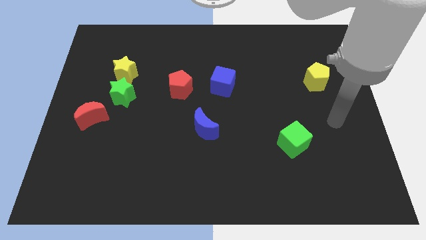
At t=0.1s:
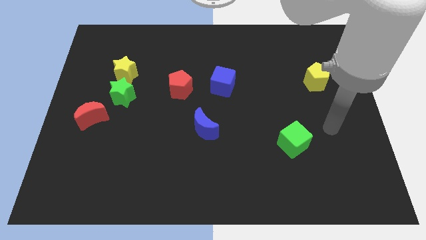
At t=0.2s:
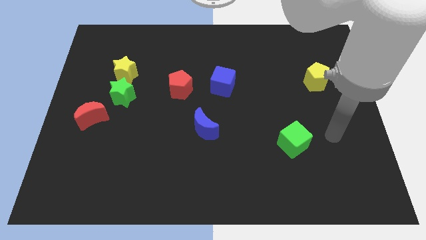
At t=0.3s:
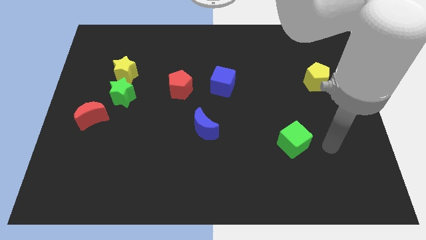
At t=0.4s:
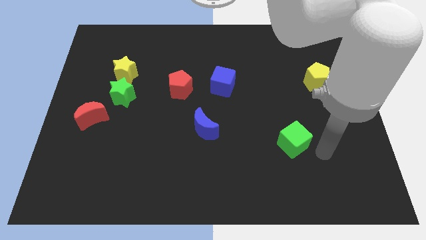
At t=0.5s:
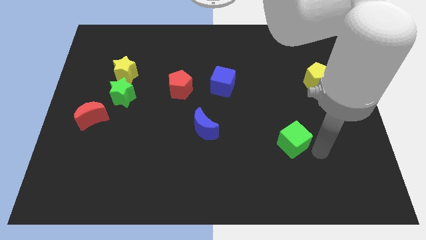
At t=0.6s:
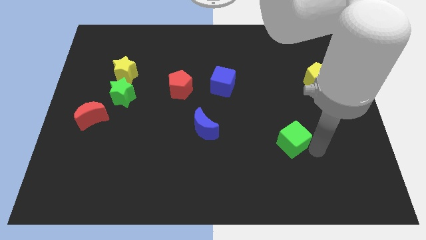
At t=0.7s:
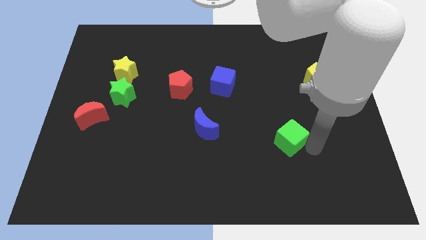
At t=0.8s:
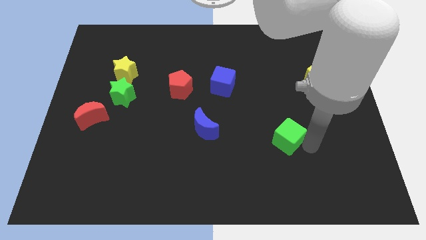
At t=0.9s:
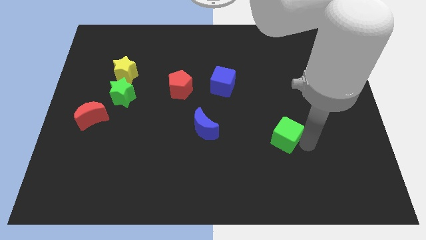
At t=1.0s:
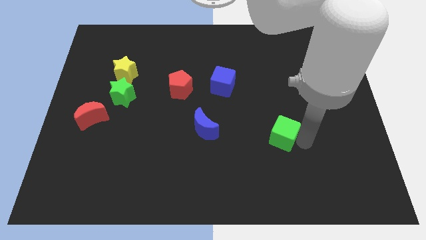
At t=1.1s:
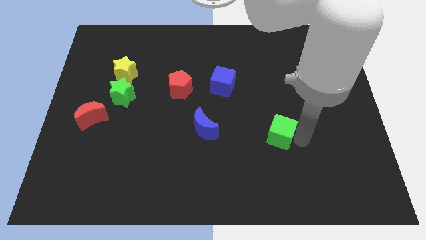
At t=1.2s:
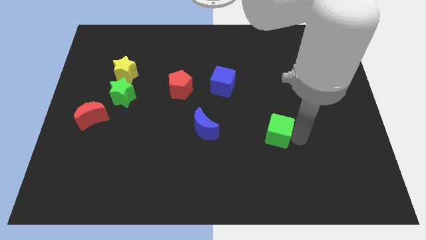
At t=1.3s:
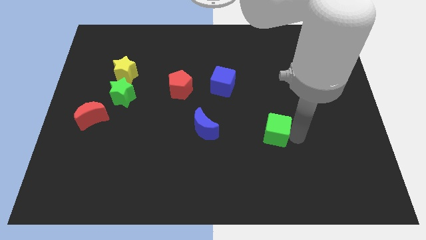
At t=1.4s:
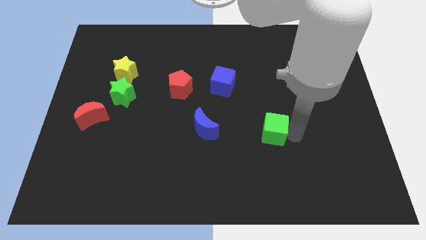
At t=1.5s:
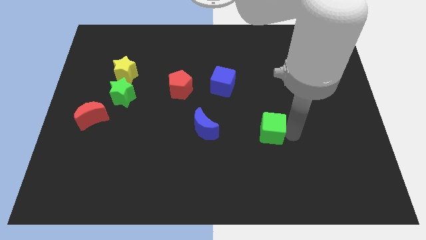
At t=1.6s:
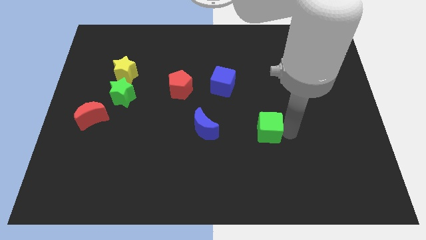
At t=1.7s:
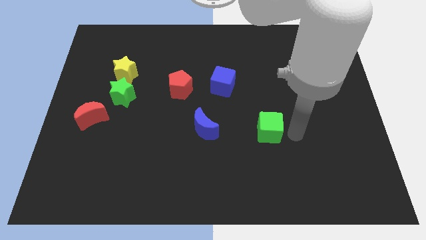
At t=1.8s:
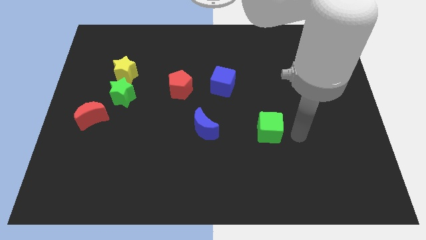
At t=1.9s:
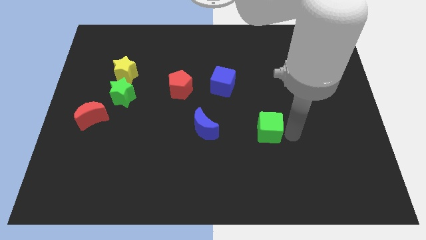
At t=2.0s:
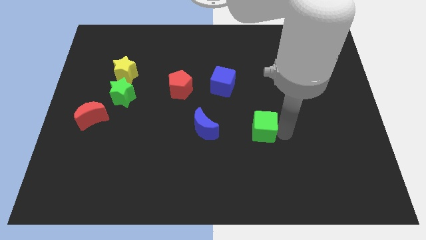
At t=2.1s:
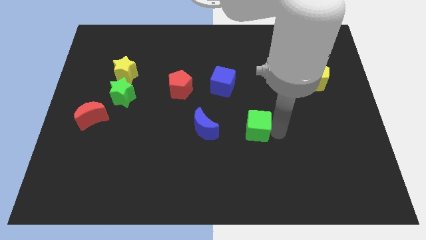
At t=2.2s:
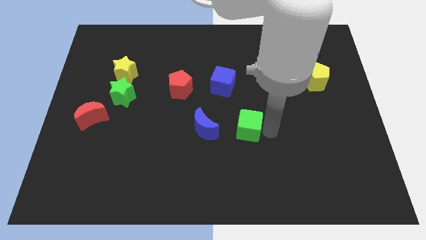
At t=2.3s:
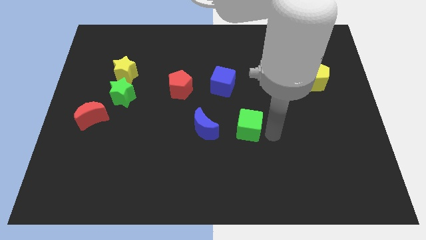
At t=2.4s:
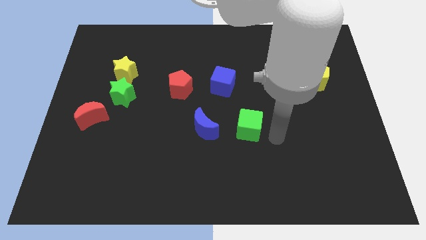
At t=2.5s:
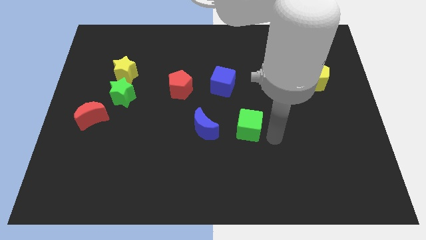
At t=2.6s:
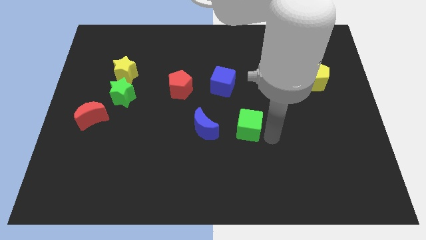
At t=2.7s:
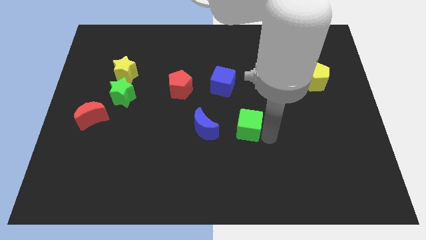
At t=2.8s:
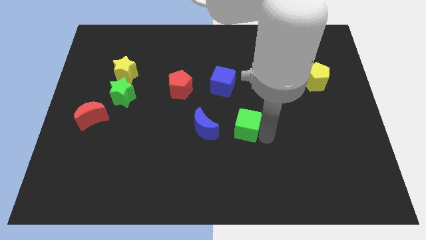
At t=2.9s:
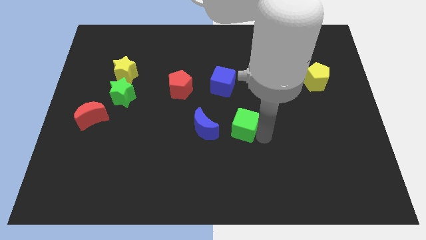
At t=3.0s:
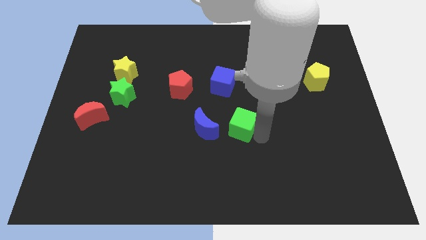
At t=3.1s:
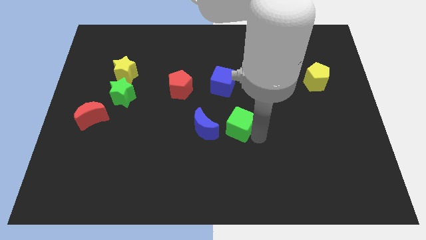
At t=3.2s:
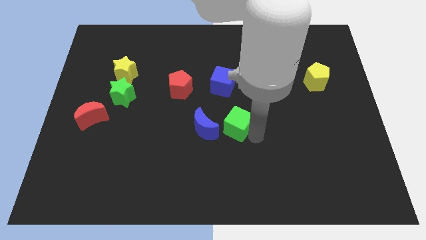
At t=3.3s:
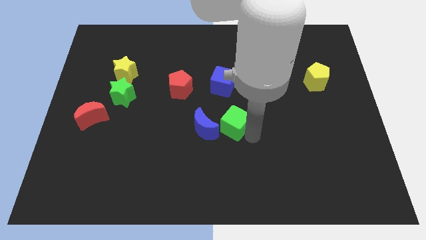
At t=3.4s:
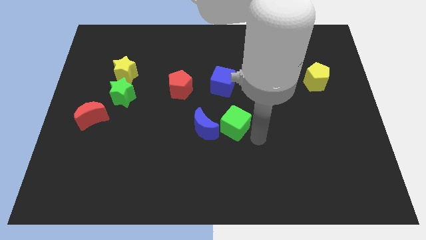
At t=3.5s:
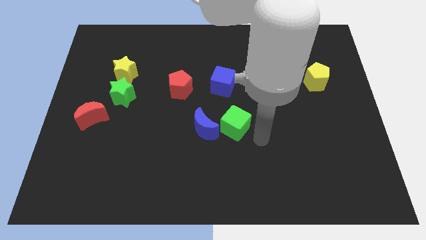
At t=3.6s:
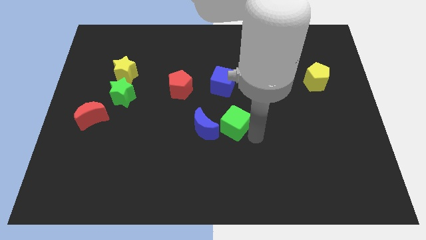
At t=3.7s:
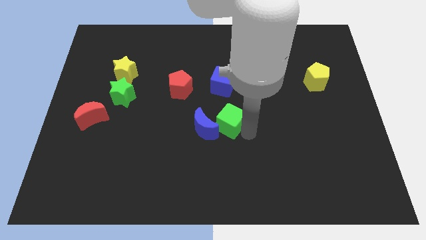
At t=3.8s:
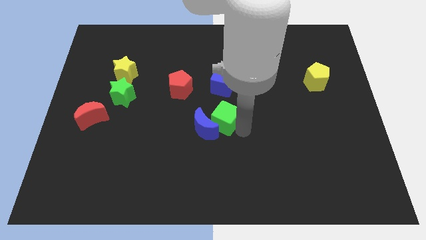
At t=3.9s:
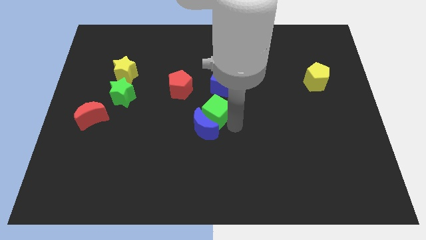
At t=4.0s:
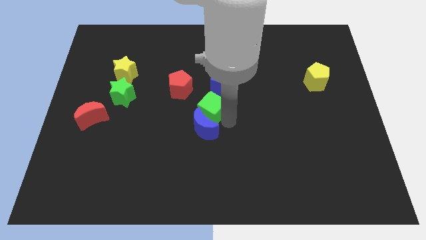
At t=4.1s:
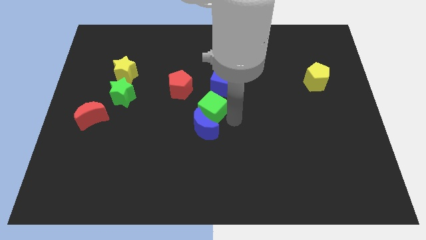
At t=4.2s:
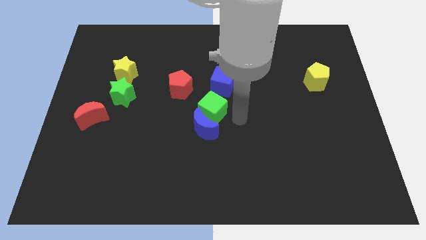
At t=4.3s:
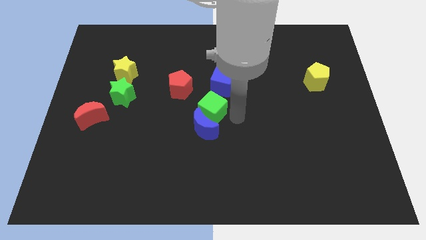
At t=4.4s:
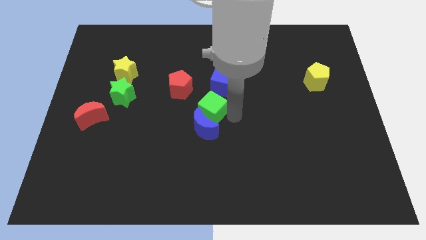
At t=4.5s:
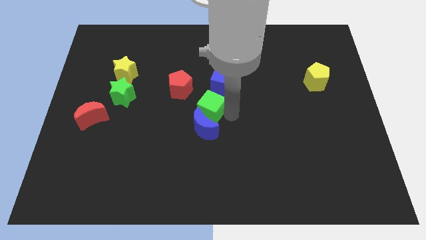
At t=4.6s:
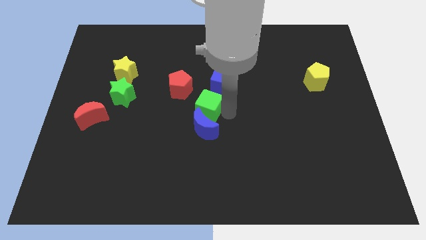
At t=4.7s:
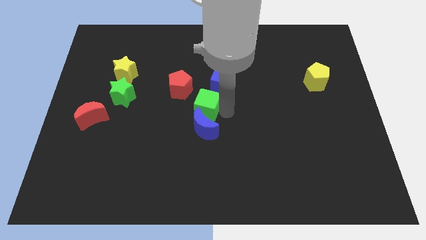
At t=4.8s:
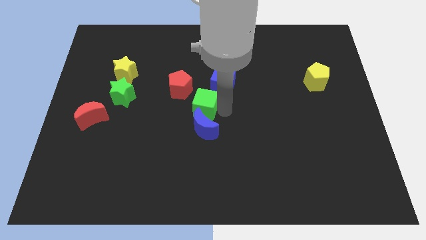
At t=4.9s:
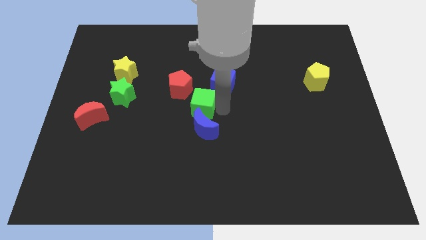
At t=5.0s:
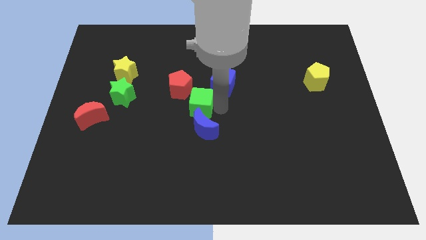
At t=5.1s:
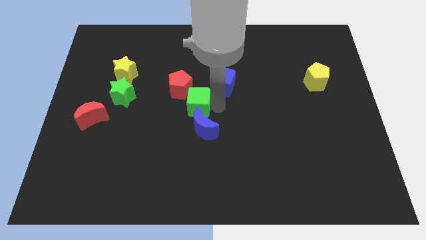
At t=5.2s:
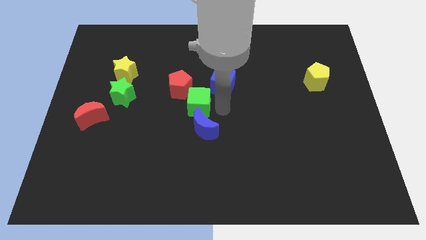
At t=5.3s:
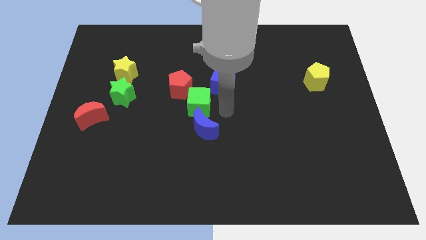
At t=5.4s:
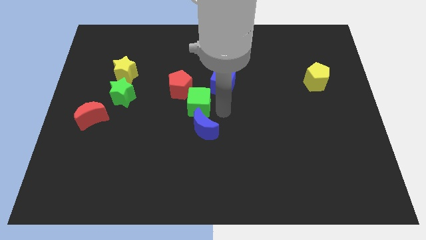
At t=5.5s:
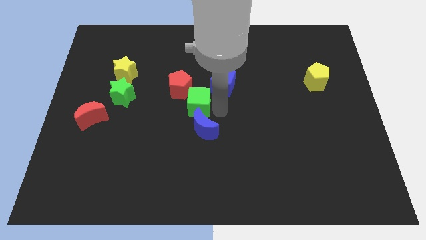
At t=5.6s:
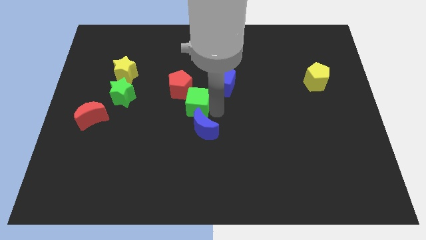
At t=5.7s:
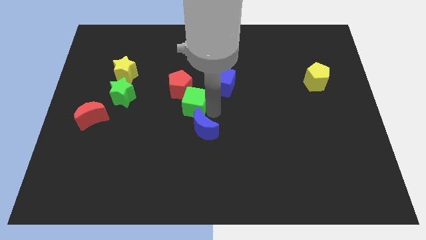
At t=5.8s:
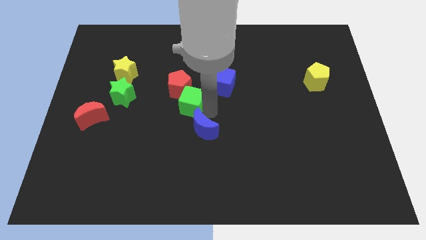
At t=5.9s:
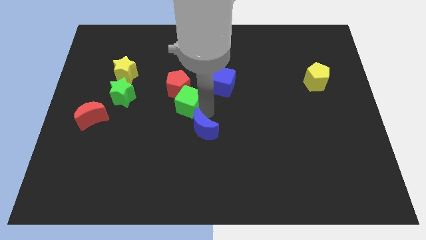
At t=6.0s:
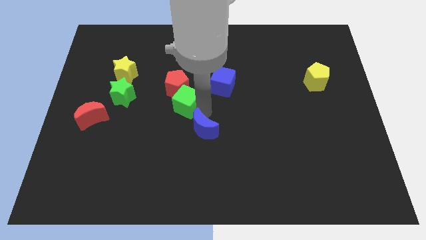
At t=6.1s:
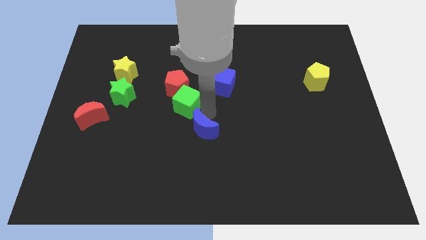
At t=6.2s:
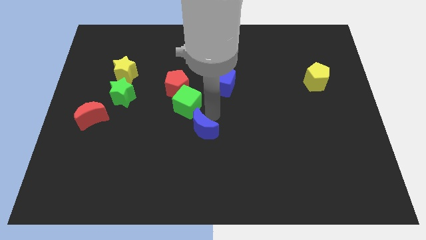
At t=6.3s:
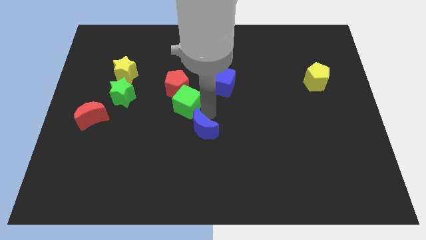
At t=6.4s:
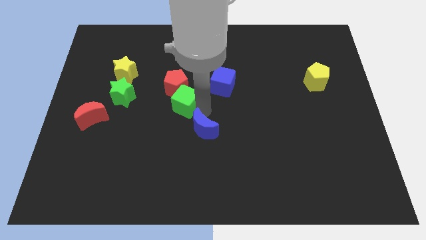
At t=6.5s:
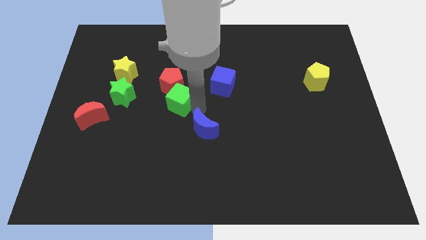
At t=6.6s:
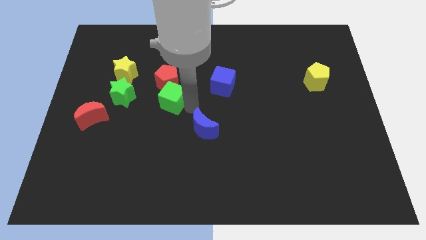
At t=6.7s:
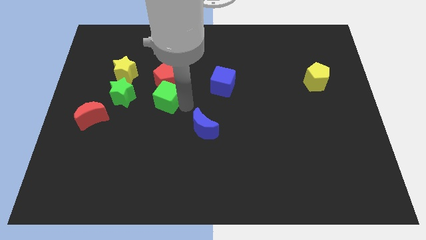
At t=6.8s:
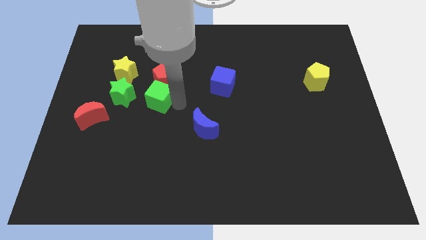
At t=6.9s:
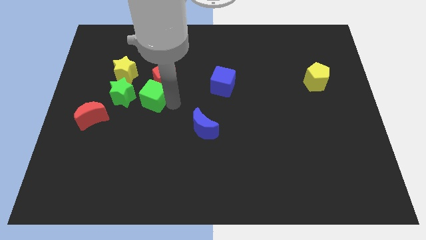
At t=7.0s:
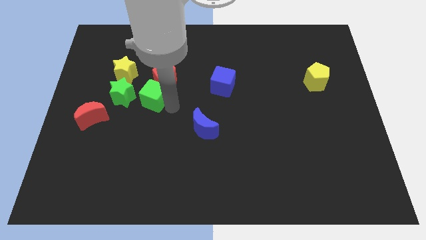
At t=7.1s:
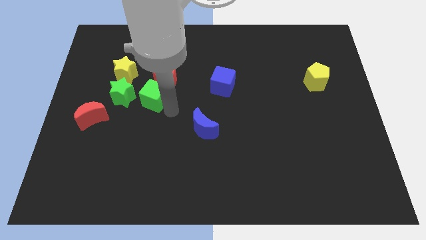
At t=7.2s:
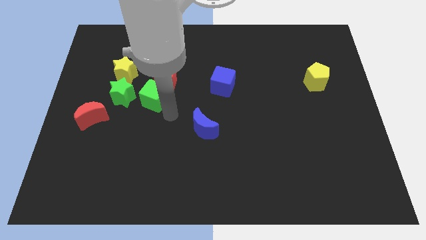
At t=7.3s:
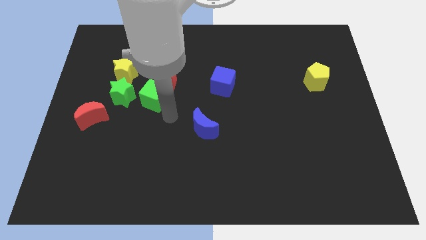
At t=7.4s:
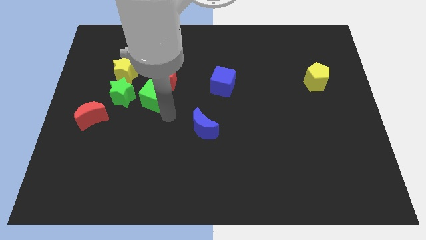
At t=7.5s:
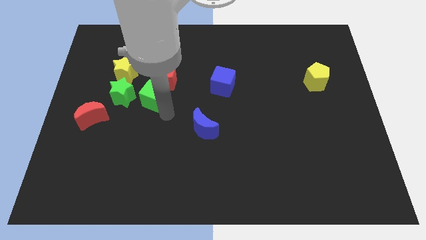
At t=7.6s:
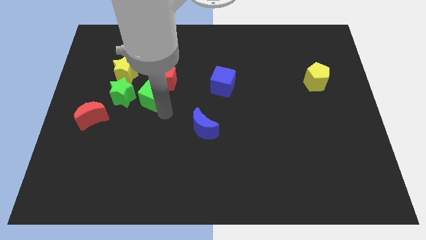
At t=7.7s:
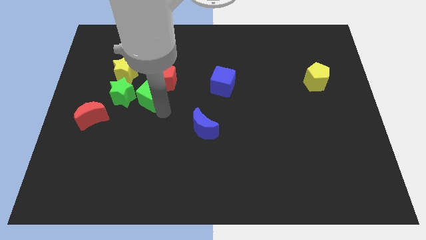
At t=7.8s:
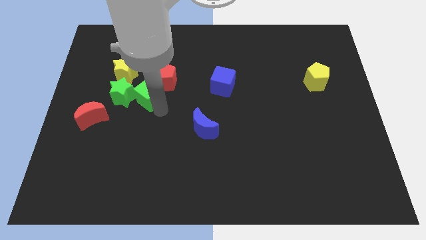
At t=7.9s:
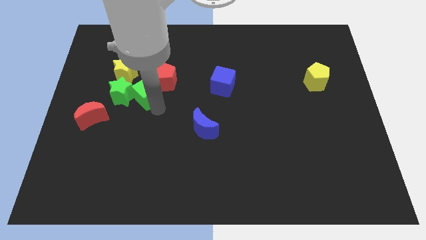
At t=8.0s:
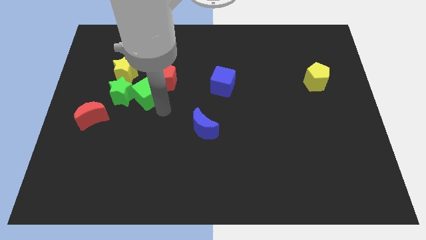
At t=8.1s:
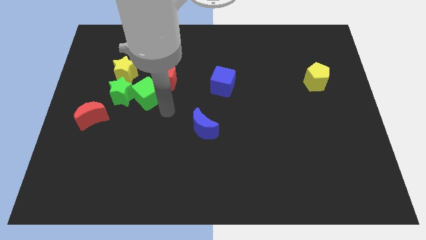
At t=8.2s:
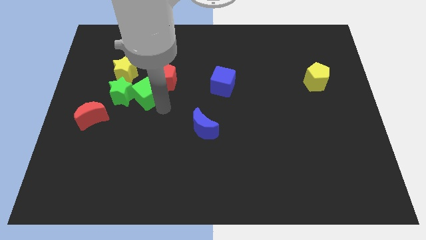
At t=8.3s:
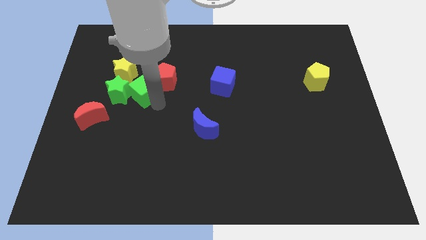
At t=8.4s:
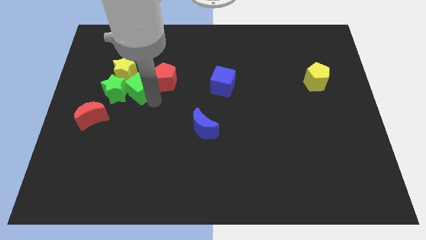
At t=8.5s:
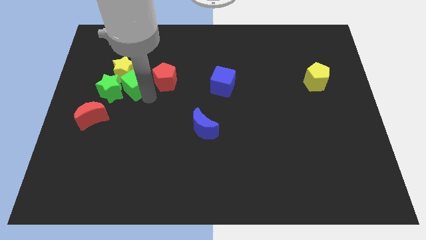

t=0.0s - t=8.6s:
push the green cube close to the yellow star

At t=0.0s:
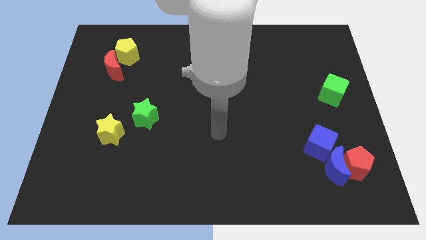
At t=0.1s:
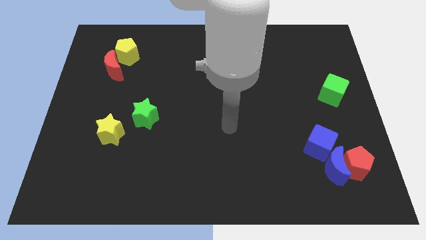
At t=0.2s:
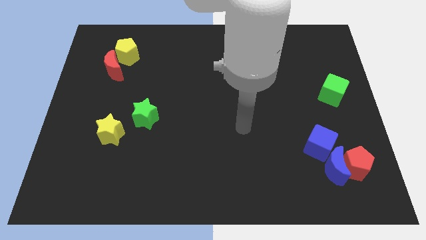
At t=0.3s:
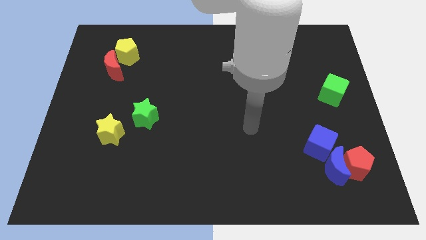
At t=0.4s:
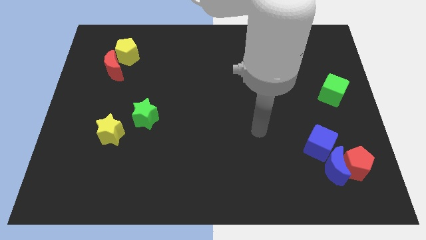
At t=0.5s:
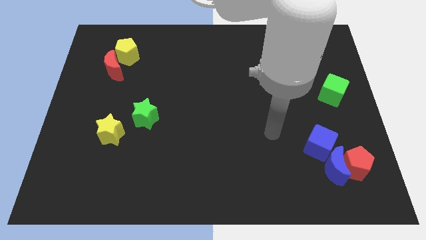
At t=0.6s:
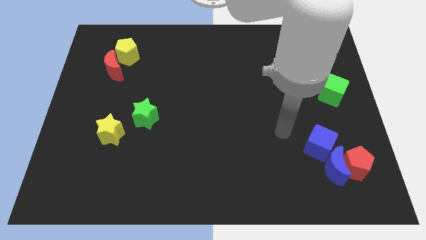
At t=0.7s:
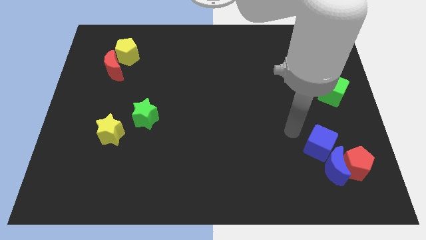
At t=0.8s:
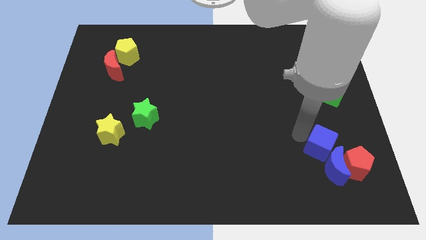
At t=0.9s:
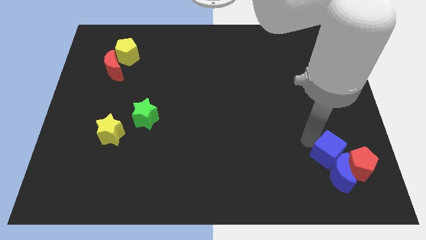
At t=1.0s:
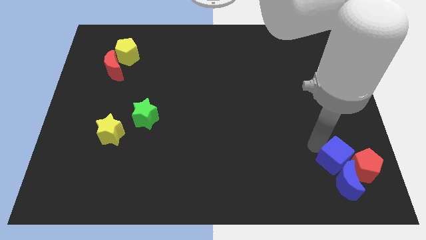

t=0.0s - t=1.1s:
put the blue cube next to the red pentagon
